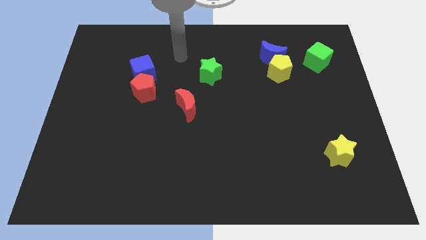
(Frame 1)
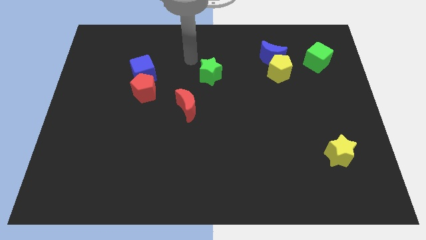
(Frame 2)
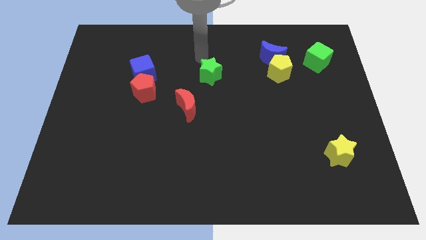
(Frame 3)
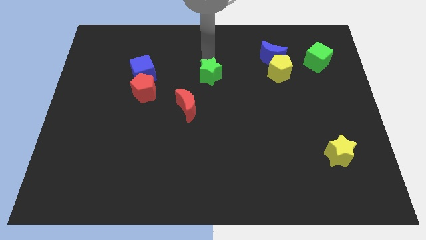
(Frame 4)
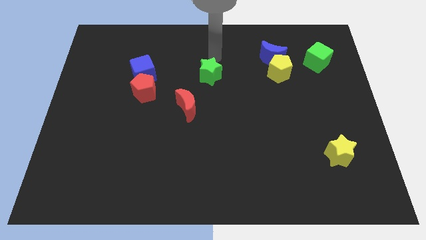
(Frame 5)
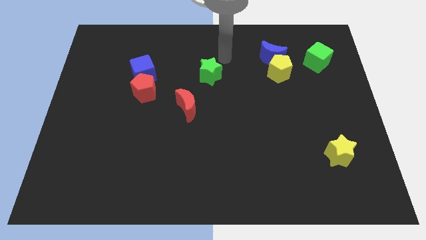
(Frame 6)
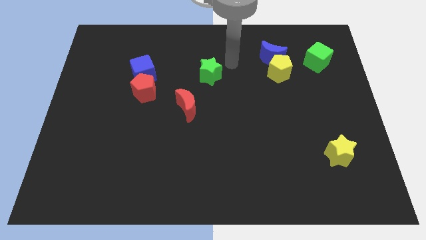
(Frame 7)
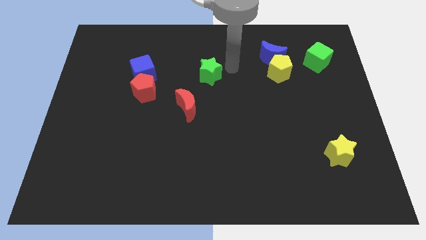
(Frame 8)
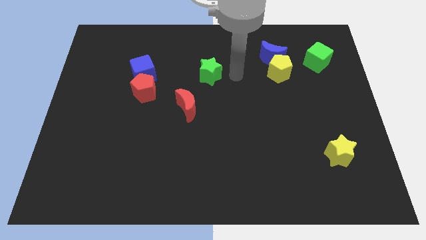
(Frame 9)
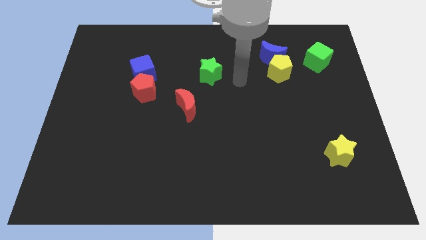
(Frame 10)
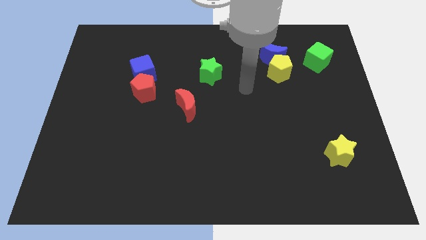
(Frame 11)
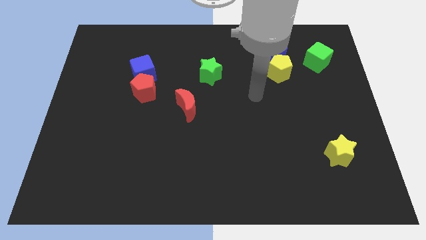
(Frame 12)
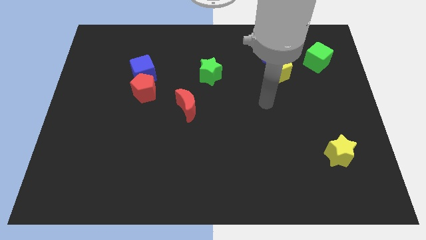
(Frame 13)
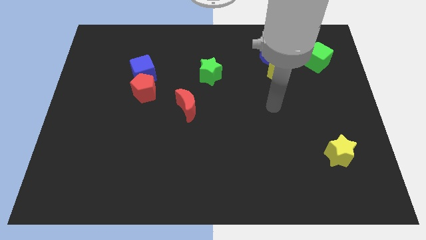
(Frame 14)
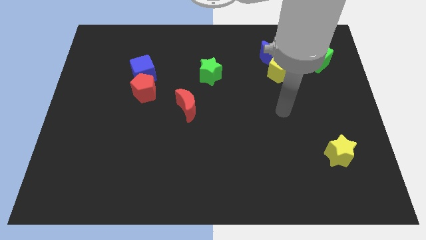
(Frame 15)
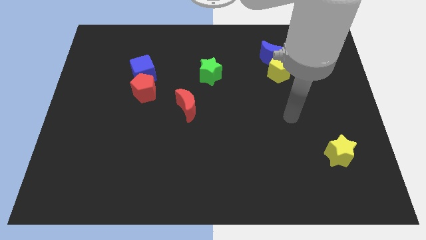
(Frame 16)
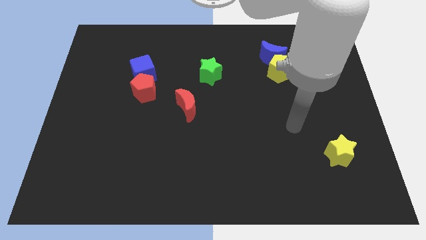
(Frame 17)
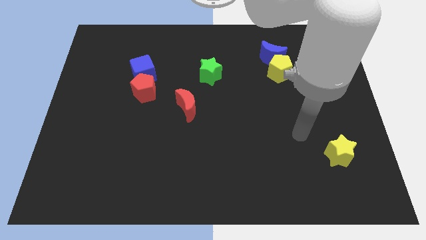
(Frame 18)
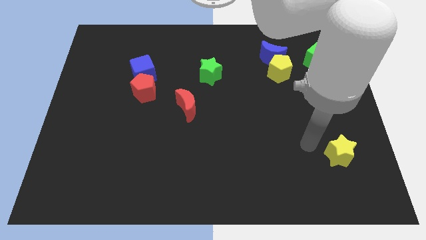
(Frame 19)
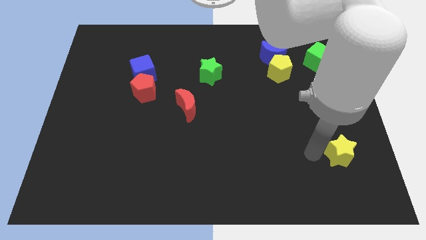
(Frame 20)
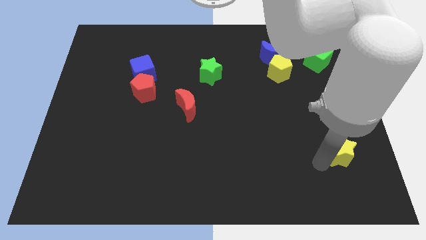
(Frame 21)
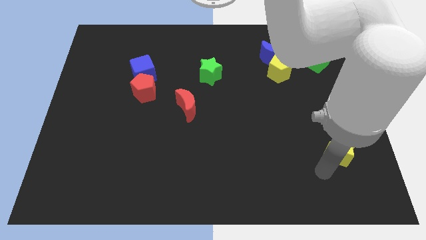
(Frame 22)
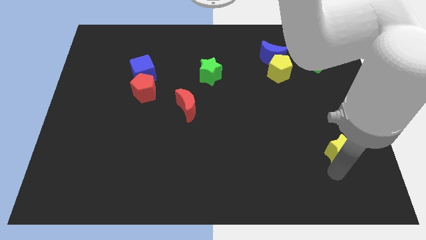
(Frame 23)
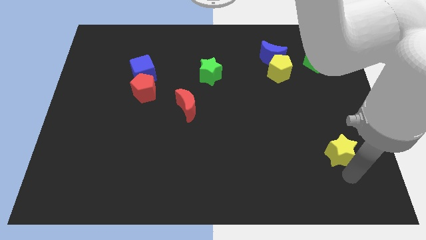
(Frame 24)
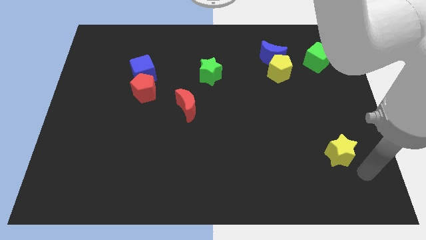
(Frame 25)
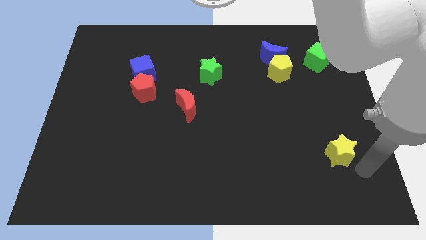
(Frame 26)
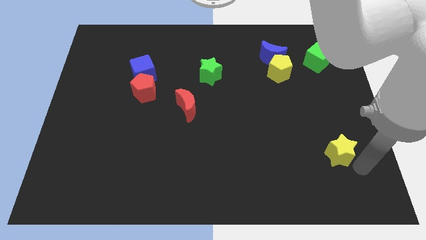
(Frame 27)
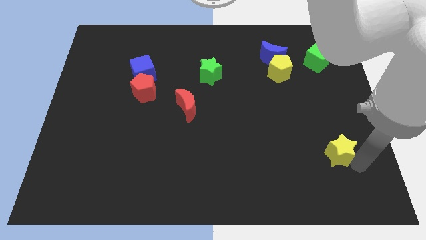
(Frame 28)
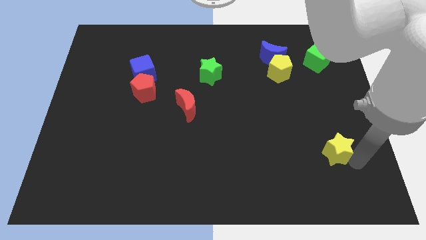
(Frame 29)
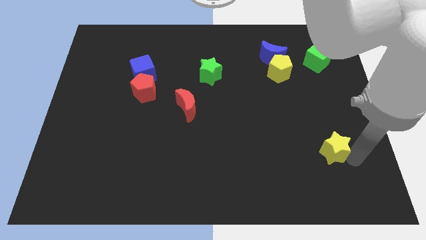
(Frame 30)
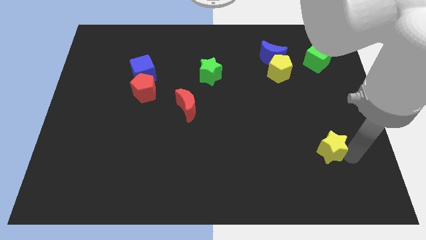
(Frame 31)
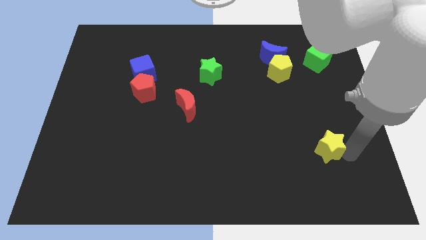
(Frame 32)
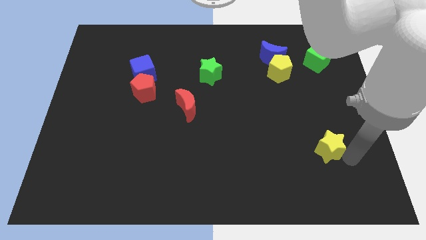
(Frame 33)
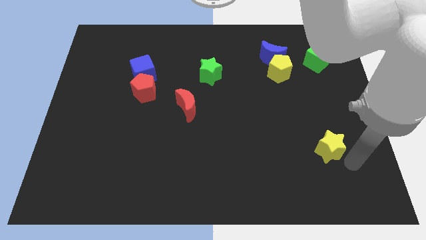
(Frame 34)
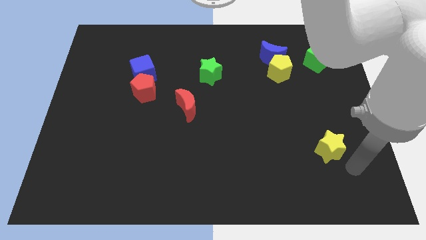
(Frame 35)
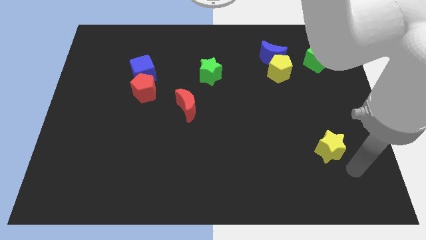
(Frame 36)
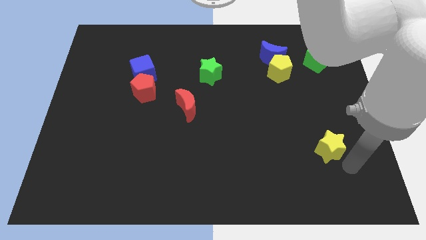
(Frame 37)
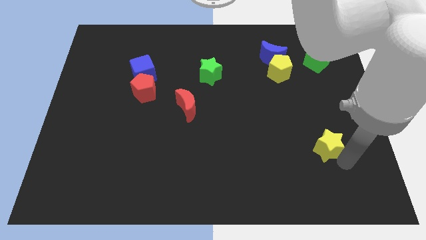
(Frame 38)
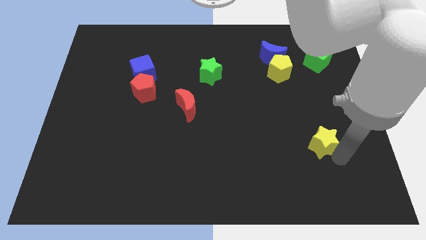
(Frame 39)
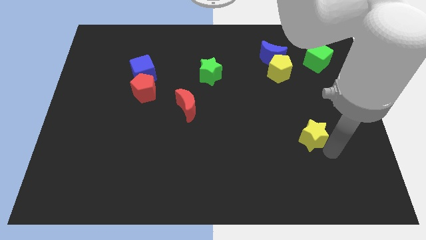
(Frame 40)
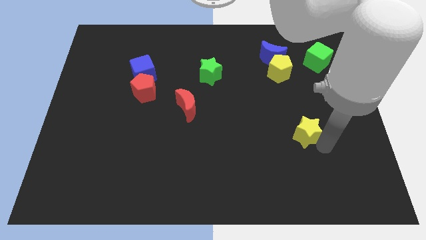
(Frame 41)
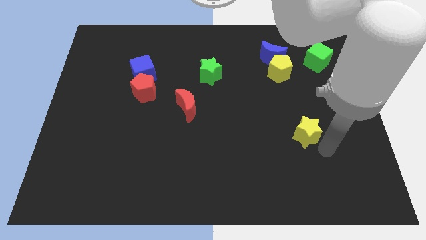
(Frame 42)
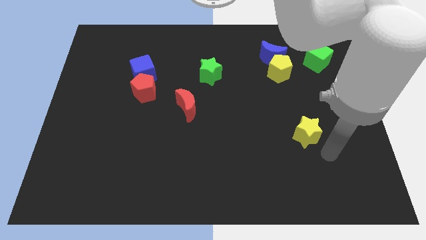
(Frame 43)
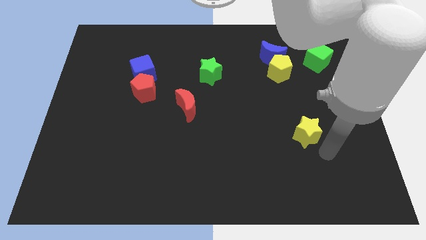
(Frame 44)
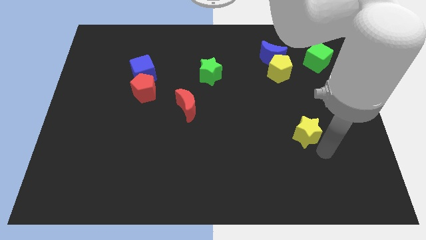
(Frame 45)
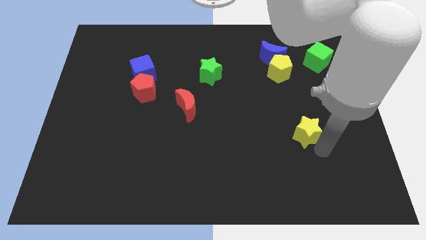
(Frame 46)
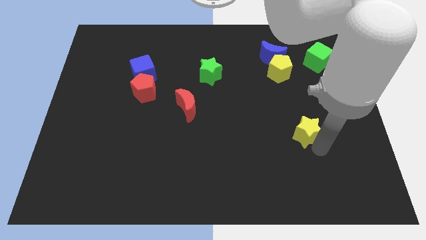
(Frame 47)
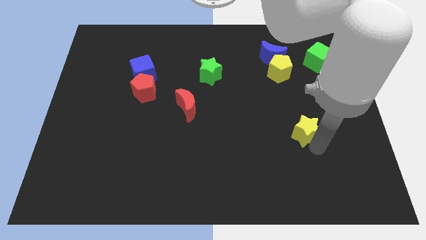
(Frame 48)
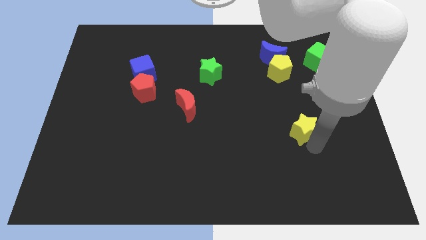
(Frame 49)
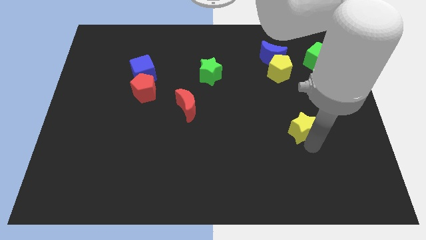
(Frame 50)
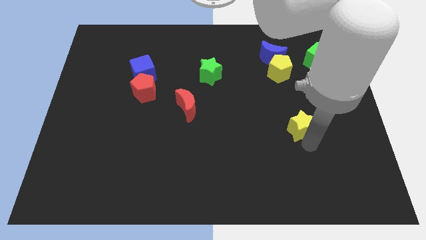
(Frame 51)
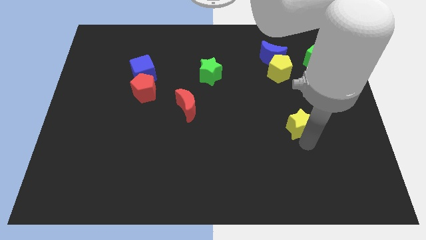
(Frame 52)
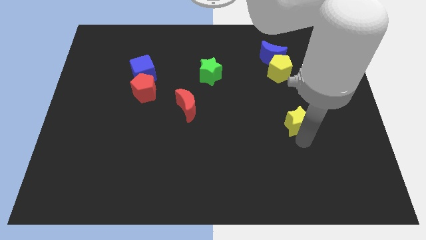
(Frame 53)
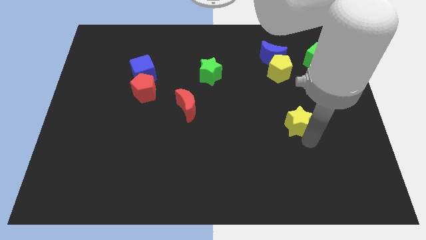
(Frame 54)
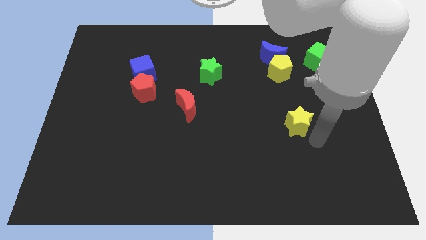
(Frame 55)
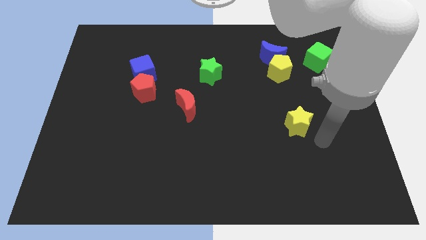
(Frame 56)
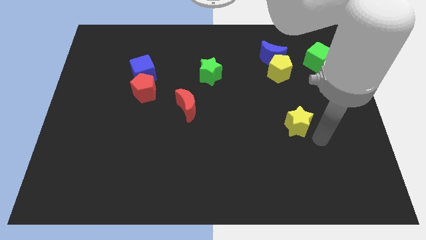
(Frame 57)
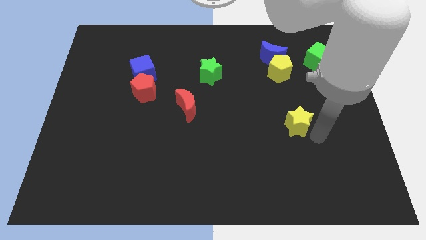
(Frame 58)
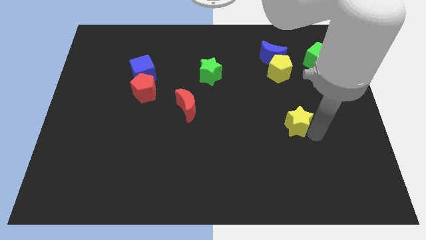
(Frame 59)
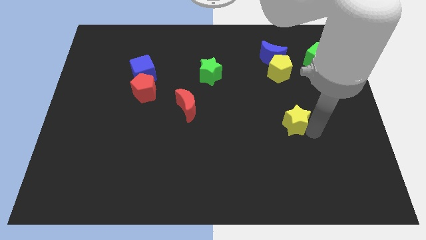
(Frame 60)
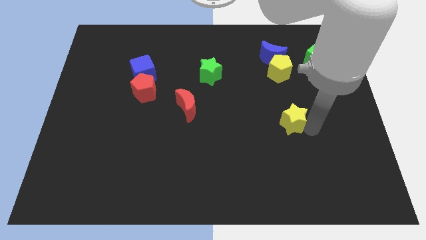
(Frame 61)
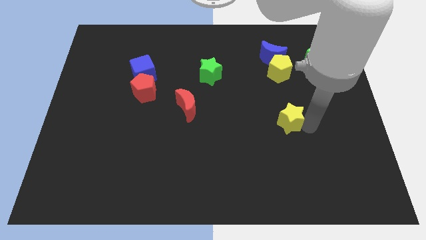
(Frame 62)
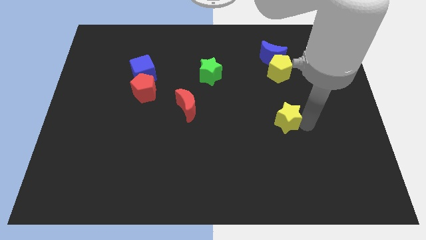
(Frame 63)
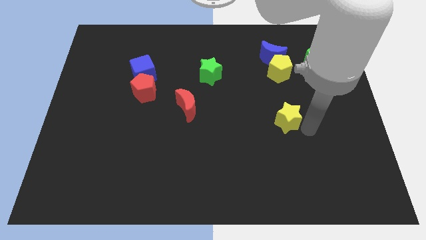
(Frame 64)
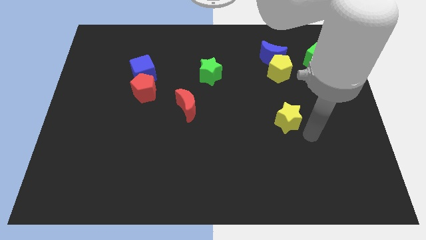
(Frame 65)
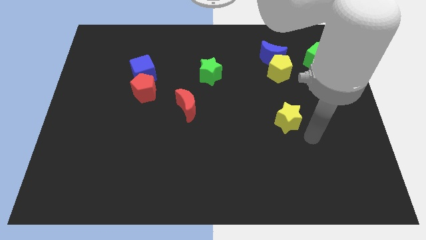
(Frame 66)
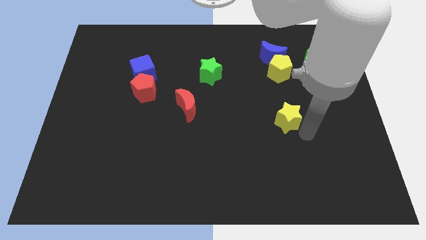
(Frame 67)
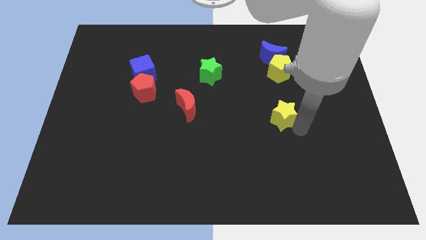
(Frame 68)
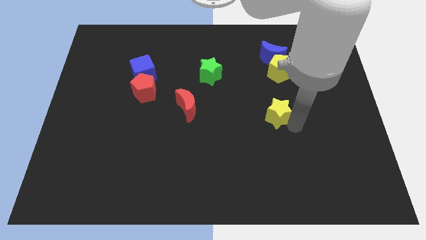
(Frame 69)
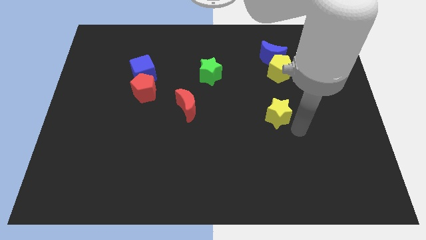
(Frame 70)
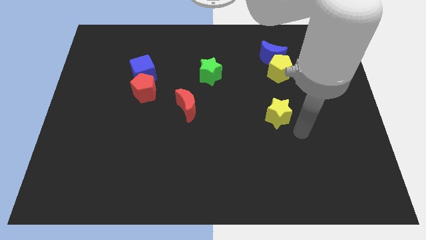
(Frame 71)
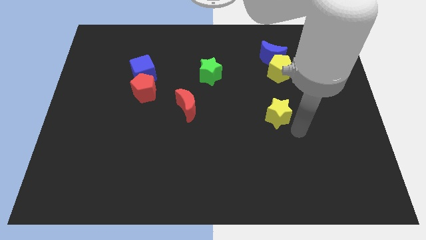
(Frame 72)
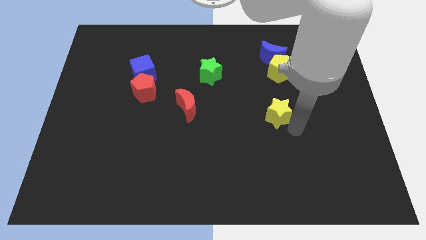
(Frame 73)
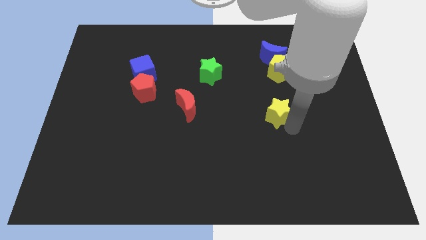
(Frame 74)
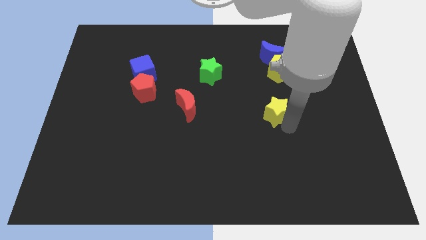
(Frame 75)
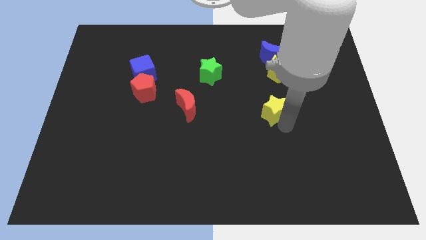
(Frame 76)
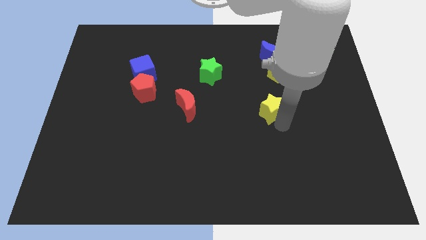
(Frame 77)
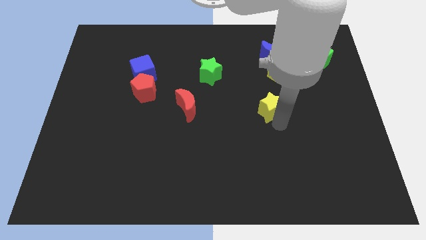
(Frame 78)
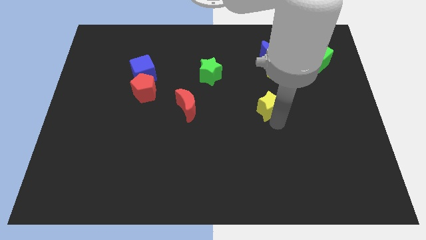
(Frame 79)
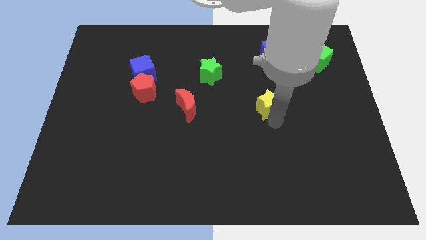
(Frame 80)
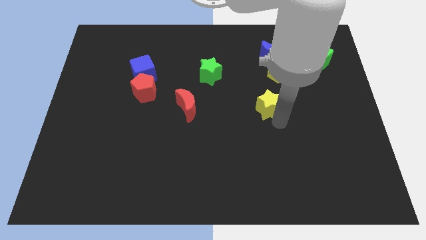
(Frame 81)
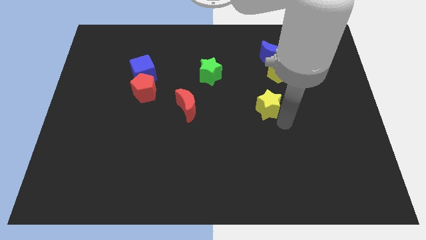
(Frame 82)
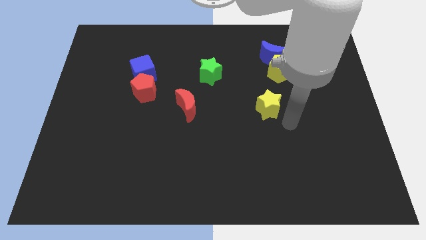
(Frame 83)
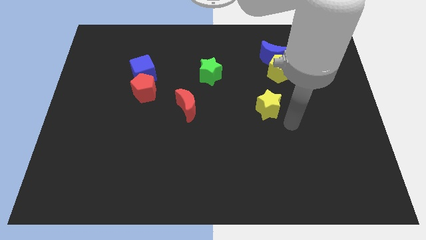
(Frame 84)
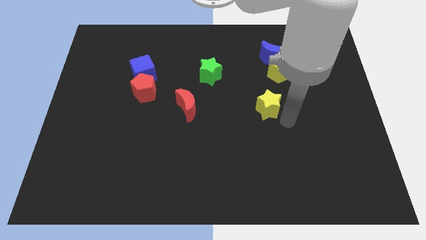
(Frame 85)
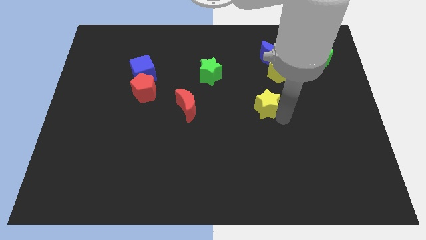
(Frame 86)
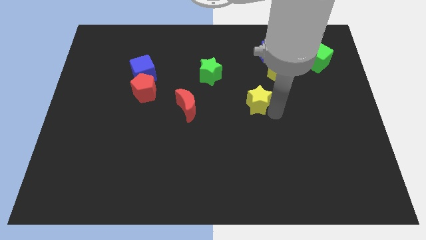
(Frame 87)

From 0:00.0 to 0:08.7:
push the yellow star diagonally up and to the left
